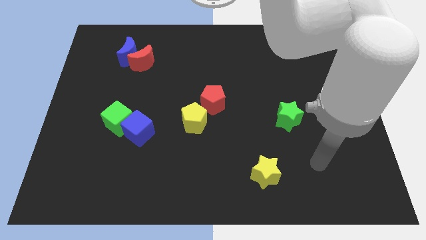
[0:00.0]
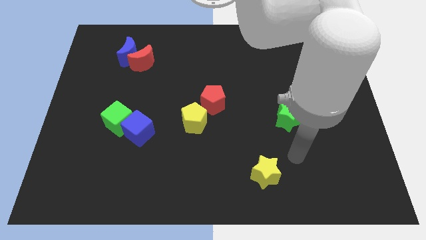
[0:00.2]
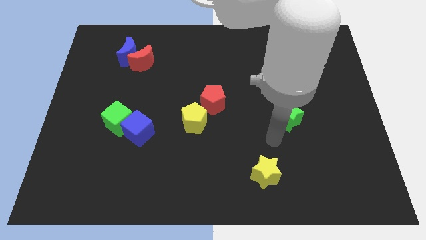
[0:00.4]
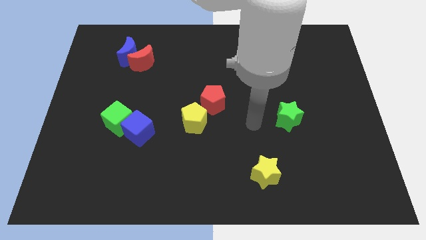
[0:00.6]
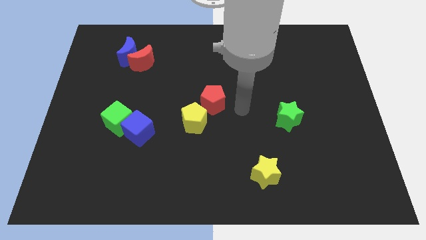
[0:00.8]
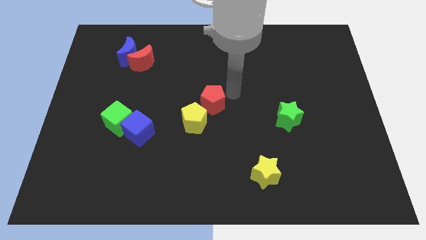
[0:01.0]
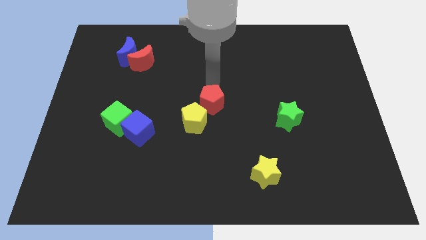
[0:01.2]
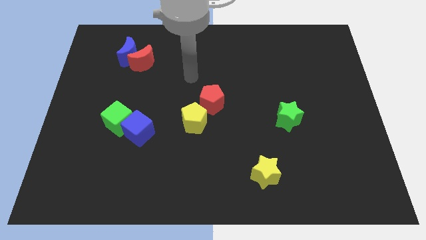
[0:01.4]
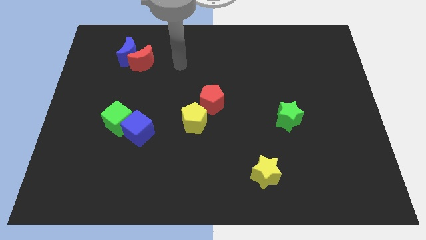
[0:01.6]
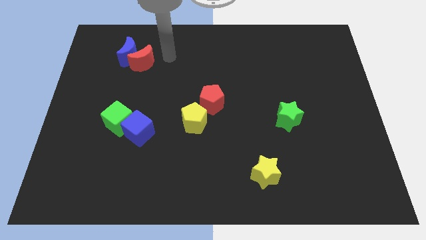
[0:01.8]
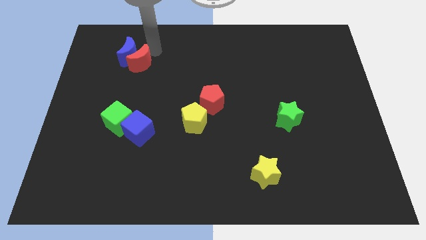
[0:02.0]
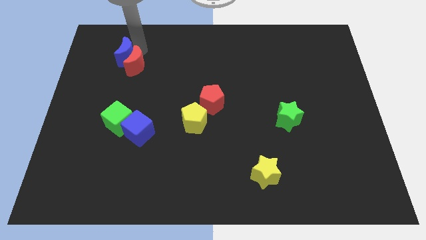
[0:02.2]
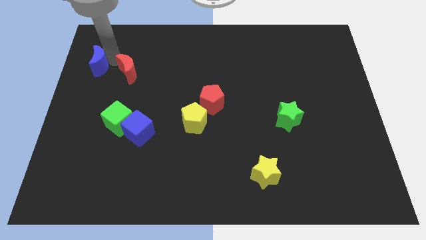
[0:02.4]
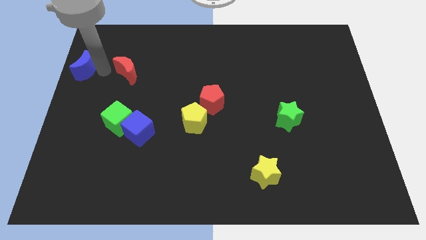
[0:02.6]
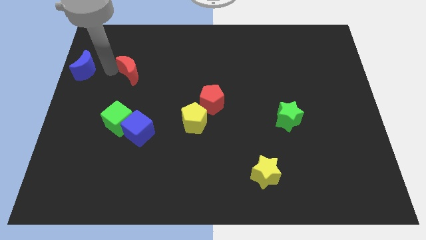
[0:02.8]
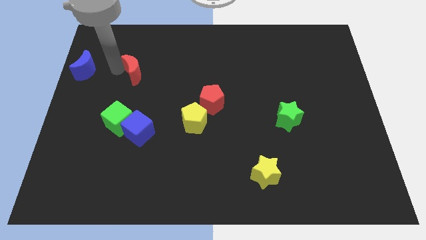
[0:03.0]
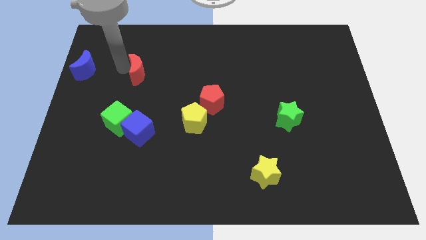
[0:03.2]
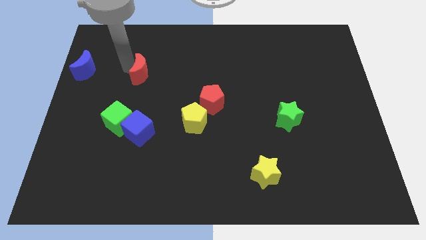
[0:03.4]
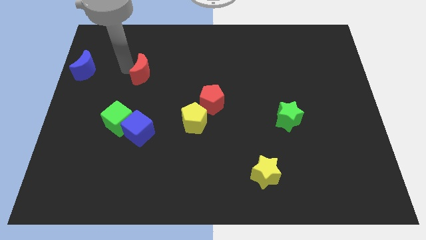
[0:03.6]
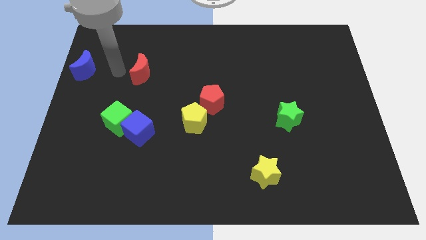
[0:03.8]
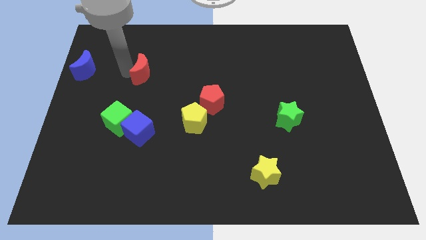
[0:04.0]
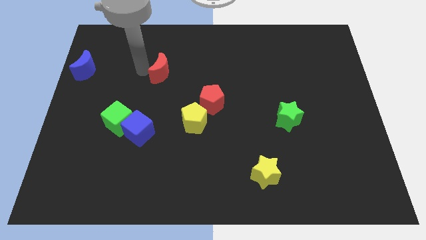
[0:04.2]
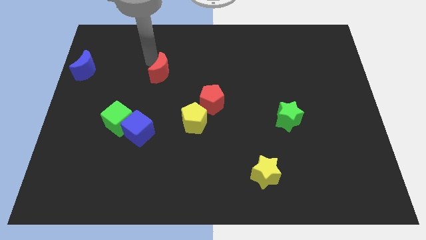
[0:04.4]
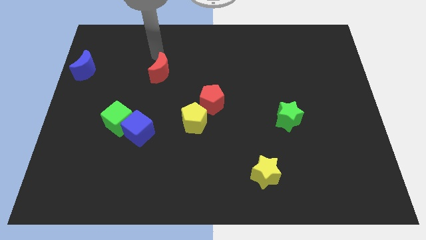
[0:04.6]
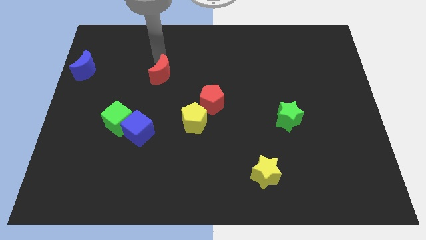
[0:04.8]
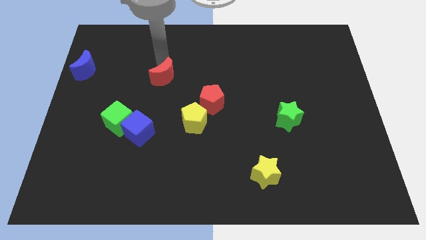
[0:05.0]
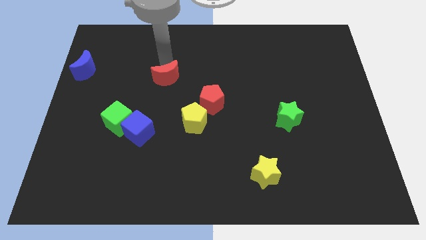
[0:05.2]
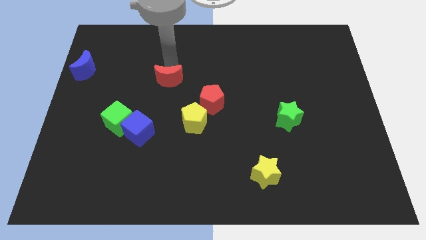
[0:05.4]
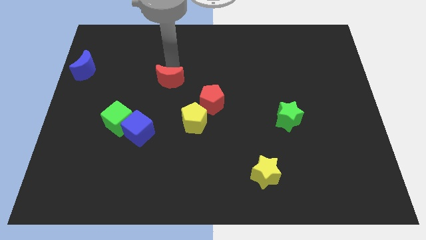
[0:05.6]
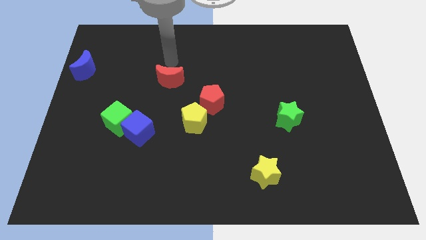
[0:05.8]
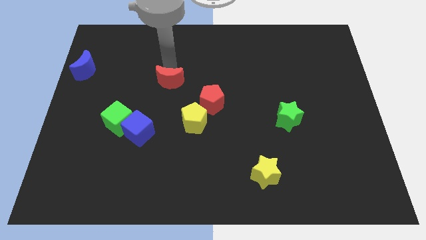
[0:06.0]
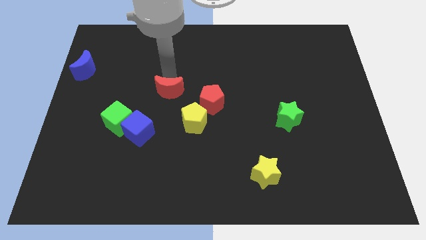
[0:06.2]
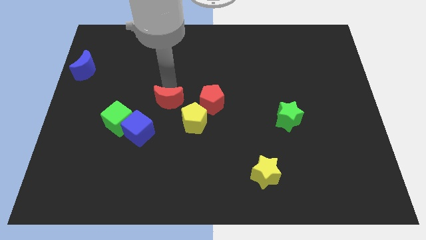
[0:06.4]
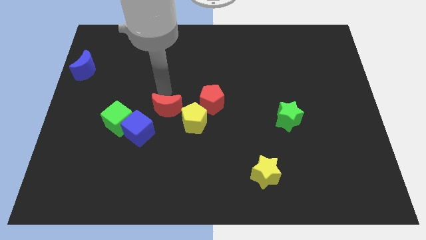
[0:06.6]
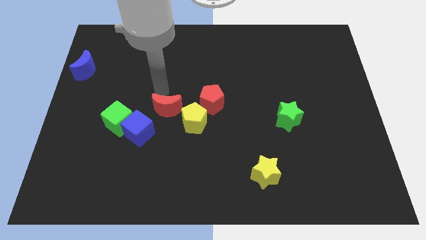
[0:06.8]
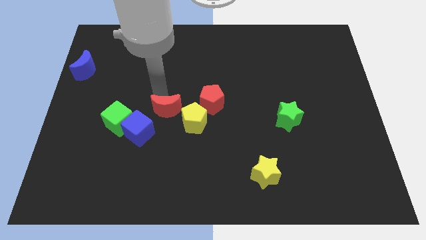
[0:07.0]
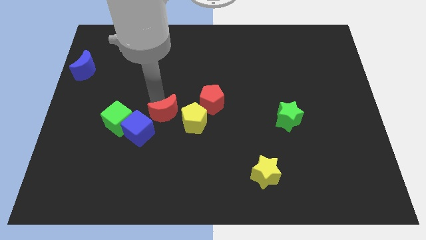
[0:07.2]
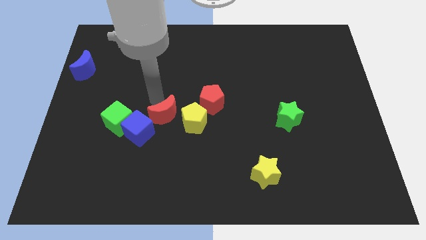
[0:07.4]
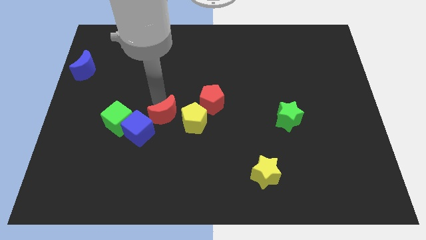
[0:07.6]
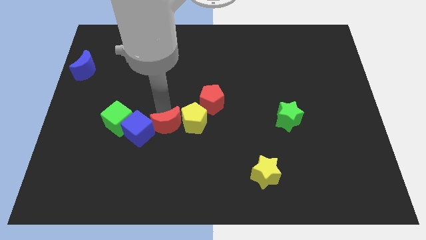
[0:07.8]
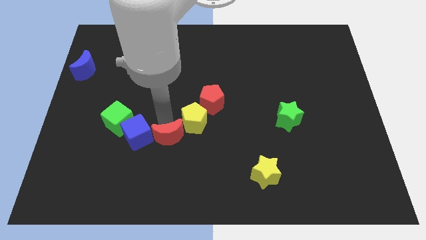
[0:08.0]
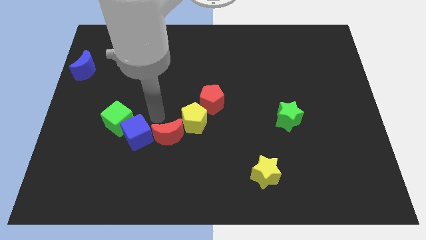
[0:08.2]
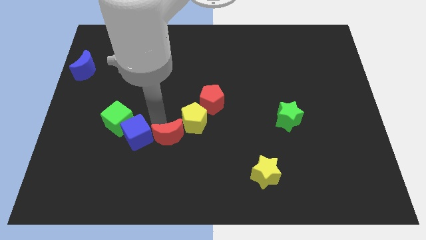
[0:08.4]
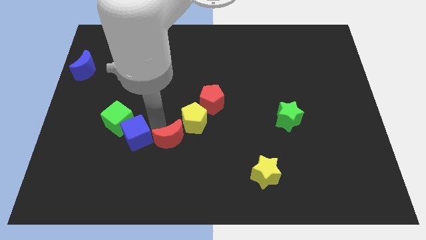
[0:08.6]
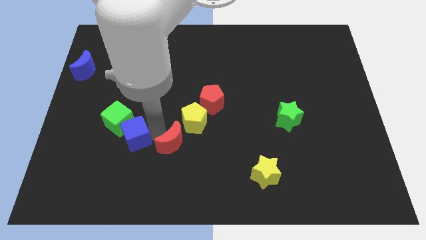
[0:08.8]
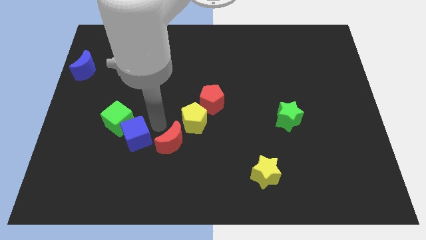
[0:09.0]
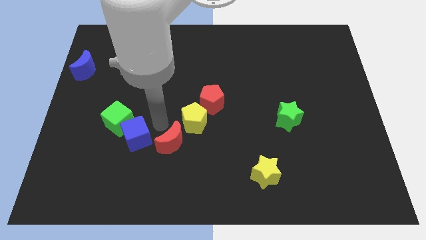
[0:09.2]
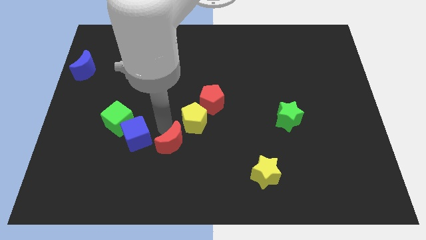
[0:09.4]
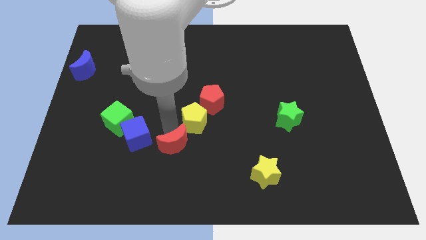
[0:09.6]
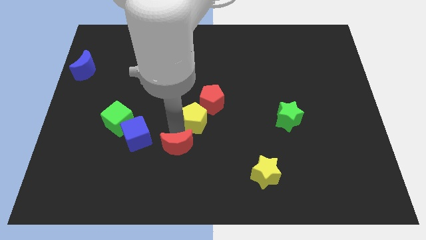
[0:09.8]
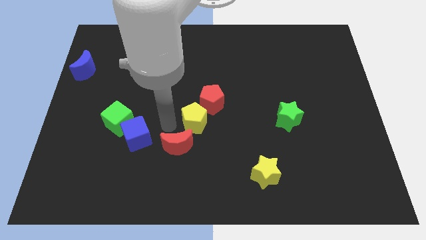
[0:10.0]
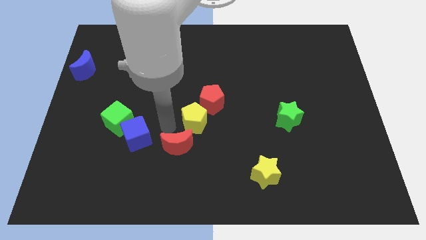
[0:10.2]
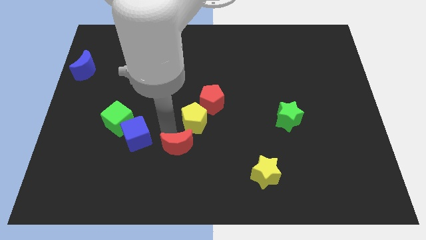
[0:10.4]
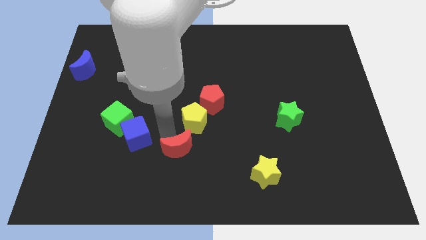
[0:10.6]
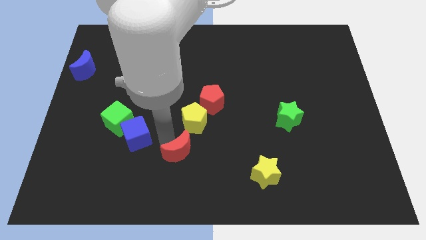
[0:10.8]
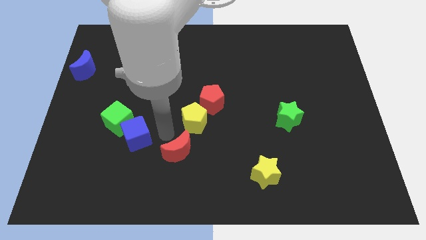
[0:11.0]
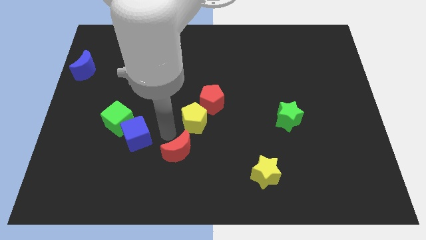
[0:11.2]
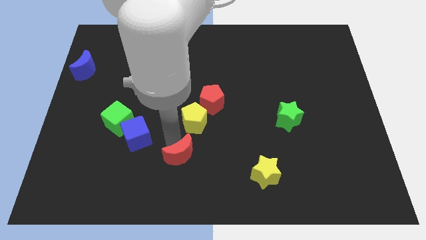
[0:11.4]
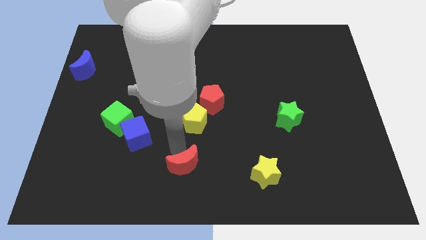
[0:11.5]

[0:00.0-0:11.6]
put the red moon to the bottom
